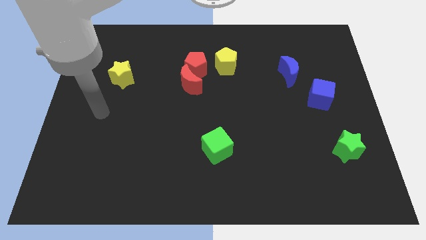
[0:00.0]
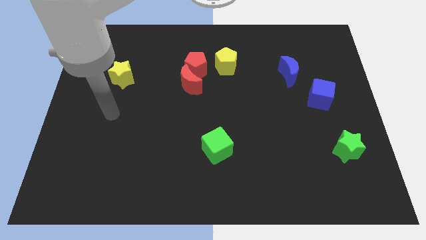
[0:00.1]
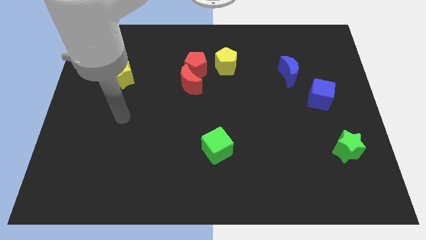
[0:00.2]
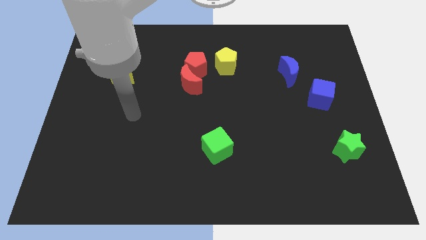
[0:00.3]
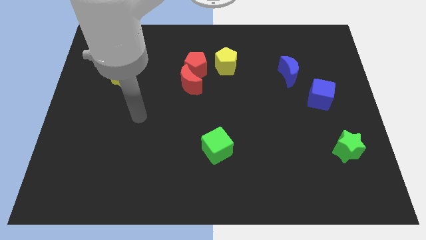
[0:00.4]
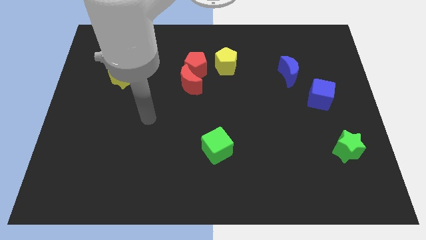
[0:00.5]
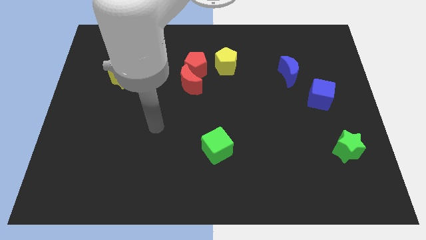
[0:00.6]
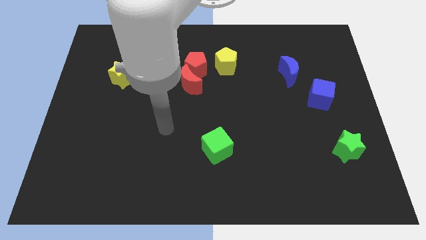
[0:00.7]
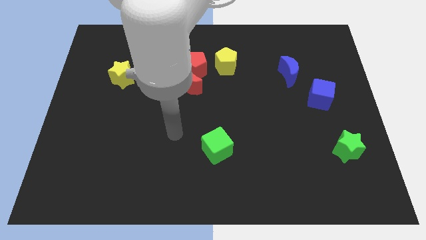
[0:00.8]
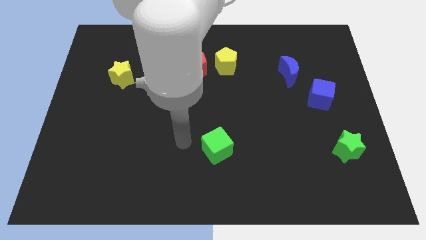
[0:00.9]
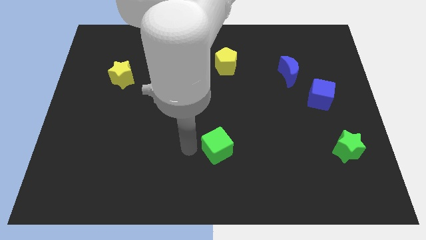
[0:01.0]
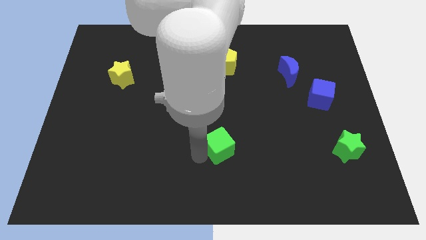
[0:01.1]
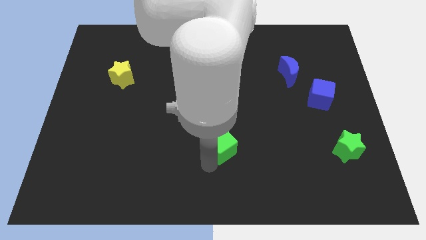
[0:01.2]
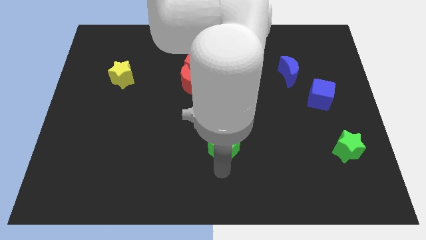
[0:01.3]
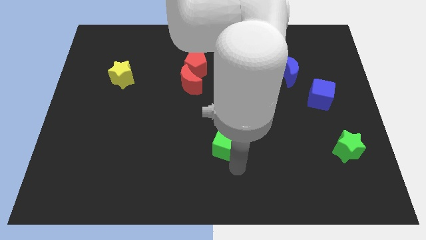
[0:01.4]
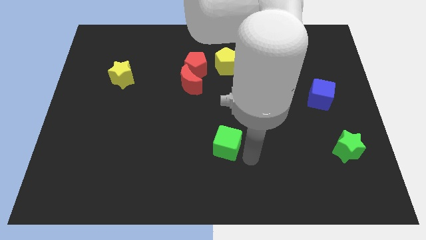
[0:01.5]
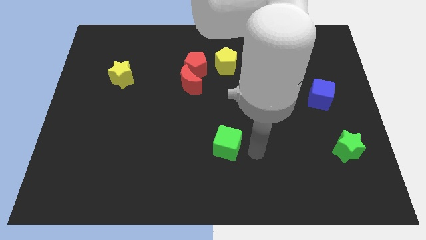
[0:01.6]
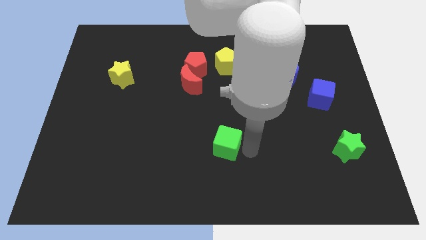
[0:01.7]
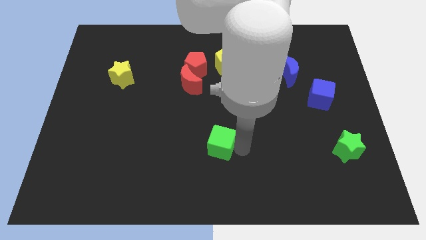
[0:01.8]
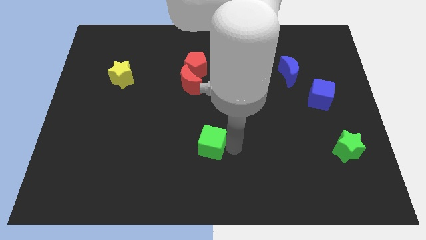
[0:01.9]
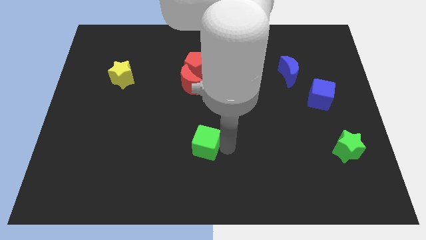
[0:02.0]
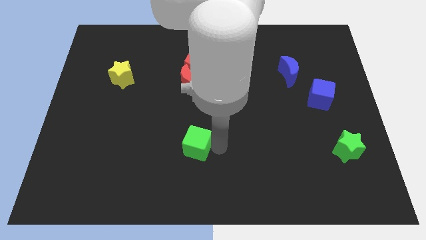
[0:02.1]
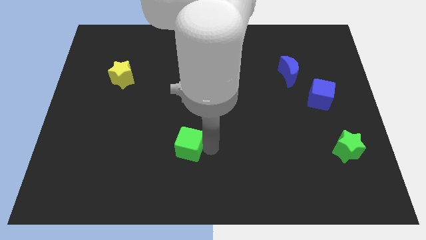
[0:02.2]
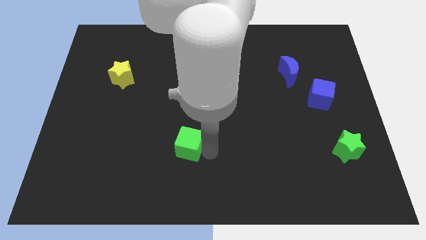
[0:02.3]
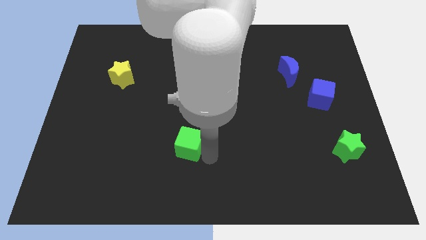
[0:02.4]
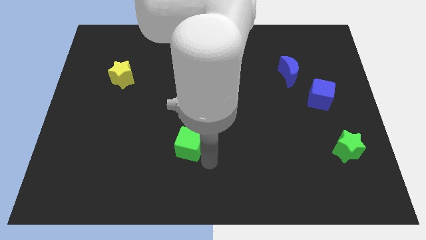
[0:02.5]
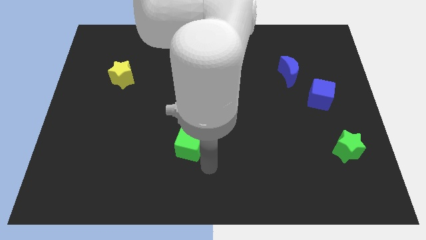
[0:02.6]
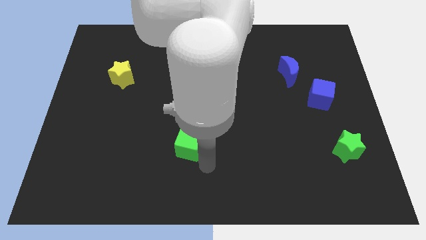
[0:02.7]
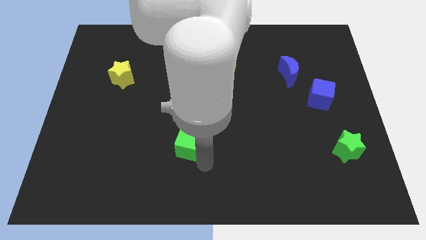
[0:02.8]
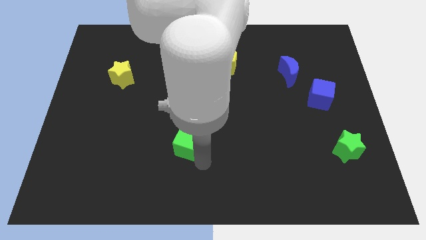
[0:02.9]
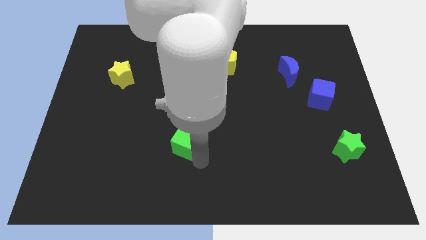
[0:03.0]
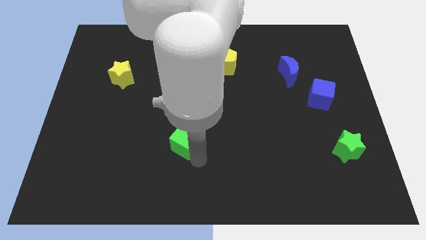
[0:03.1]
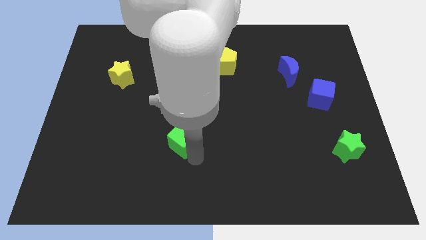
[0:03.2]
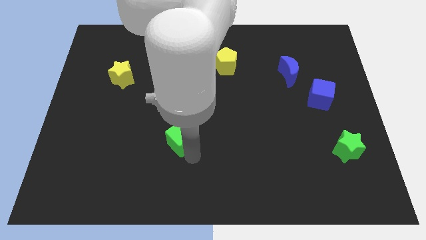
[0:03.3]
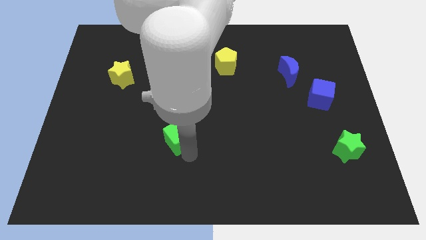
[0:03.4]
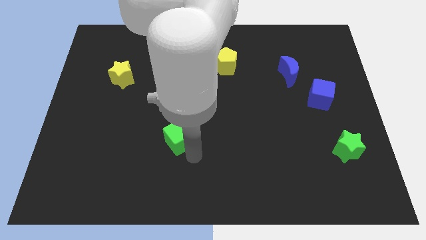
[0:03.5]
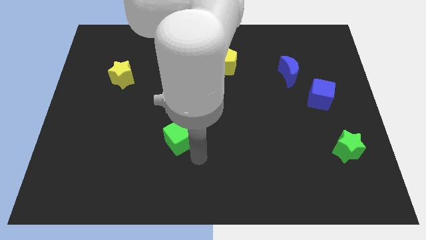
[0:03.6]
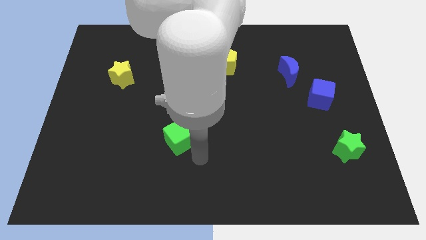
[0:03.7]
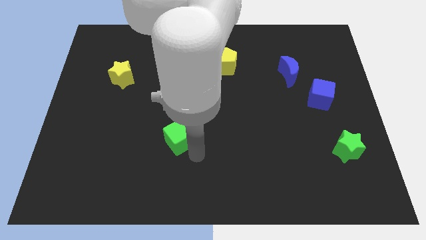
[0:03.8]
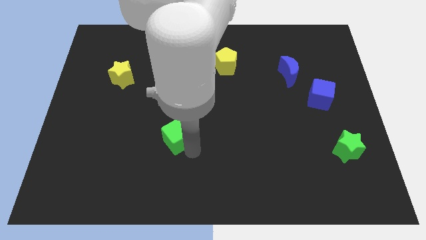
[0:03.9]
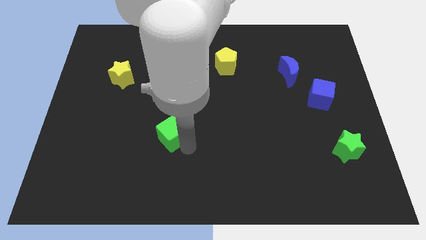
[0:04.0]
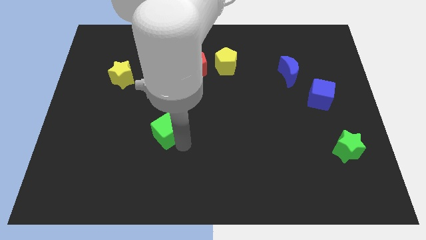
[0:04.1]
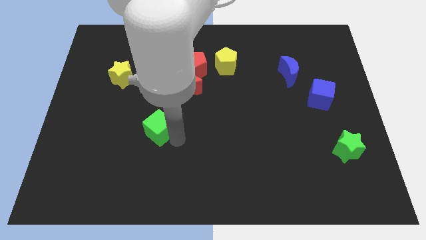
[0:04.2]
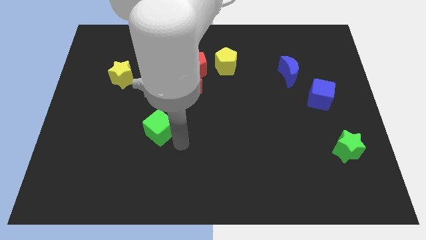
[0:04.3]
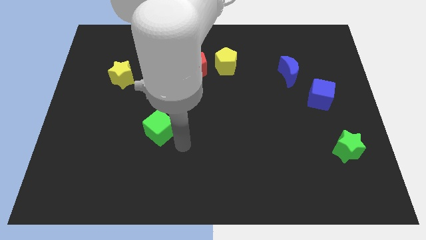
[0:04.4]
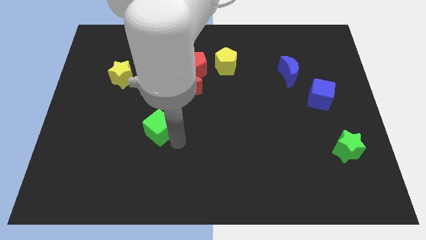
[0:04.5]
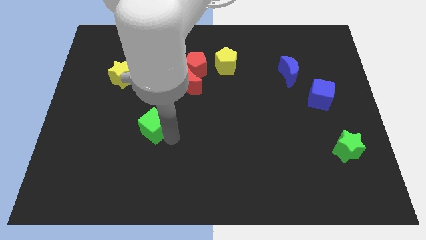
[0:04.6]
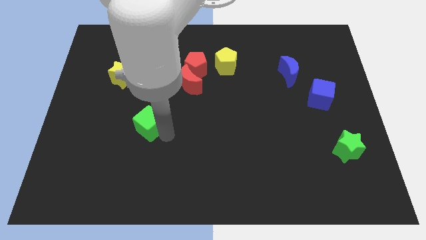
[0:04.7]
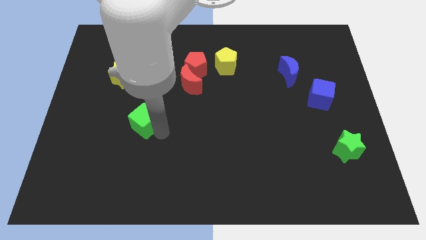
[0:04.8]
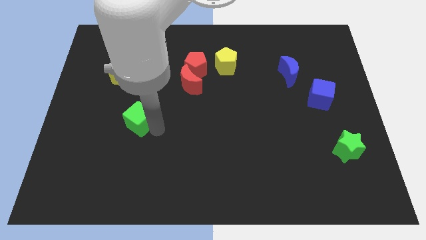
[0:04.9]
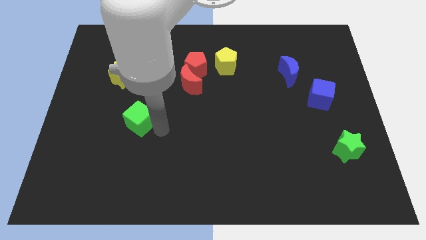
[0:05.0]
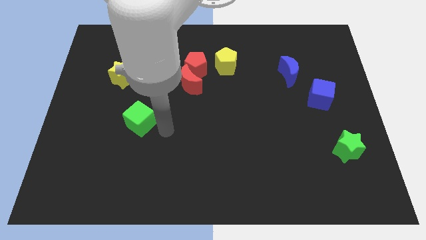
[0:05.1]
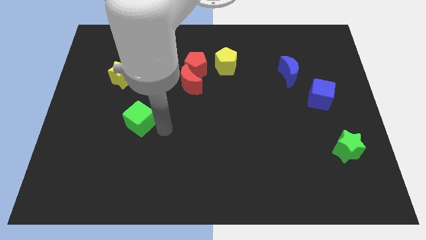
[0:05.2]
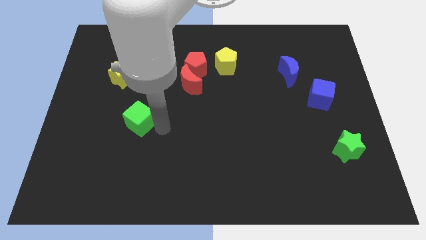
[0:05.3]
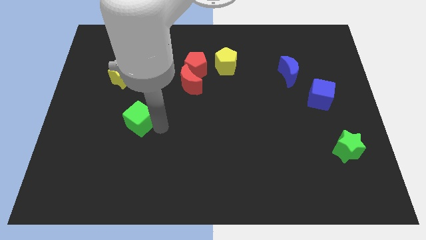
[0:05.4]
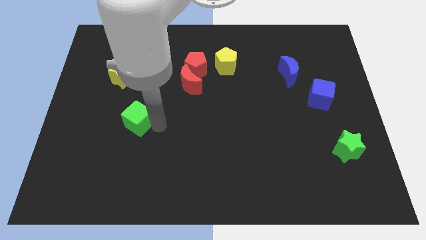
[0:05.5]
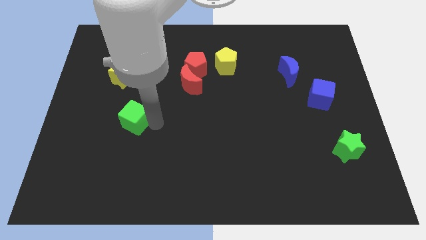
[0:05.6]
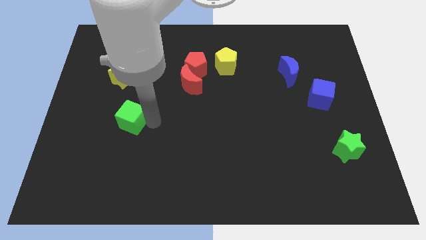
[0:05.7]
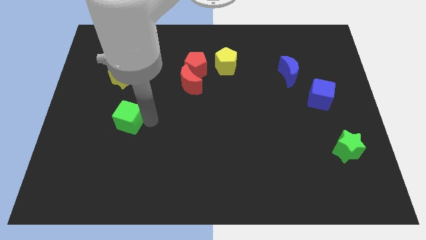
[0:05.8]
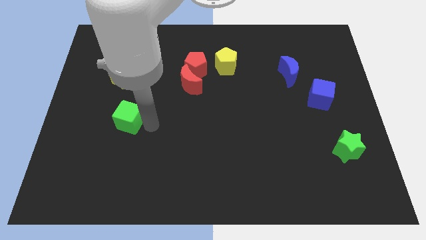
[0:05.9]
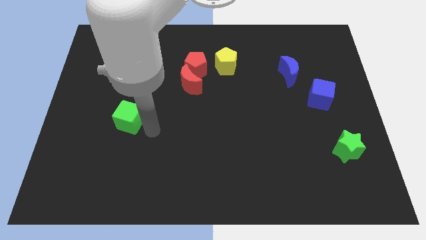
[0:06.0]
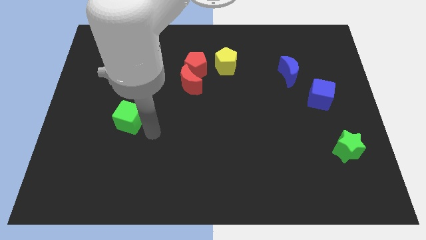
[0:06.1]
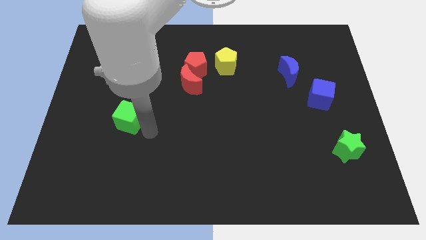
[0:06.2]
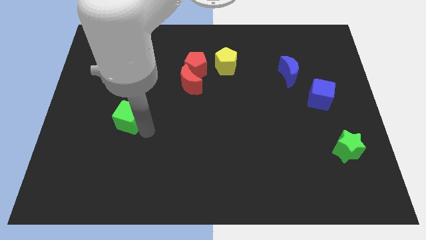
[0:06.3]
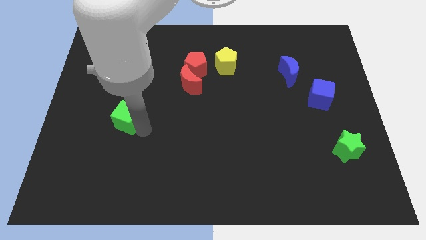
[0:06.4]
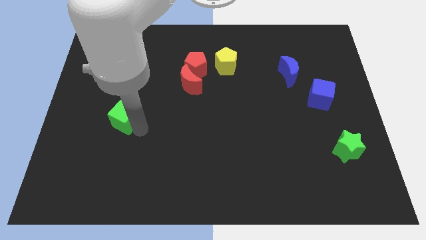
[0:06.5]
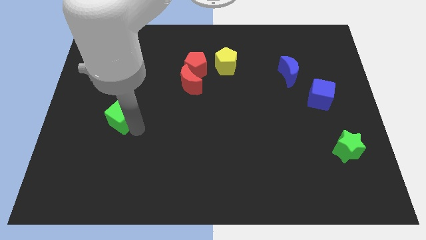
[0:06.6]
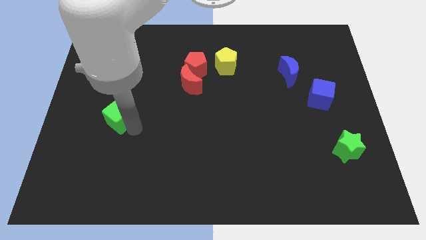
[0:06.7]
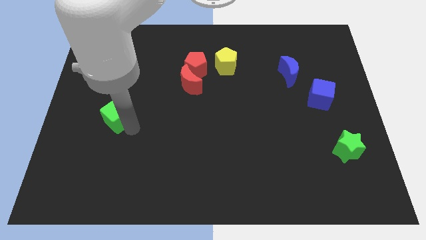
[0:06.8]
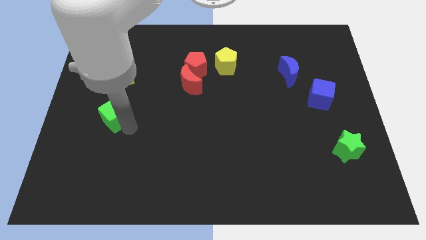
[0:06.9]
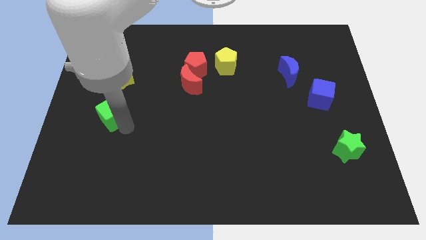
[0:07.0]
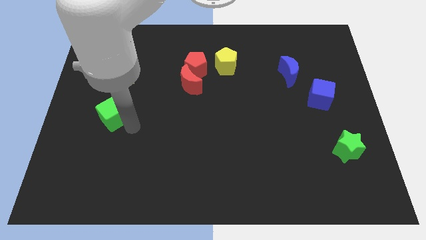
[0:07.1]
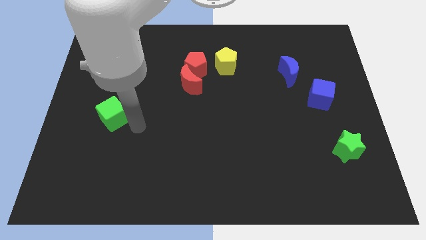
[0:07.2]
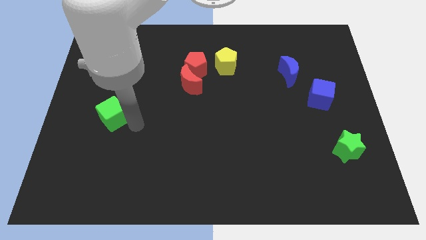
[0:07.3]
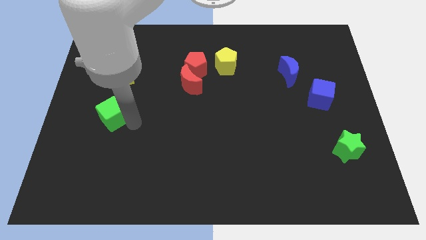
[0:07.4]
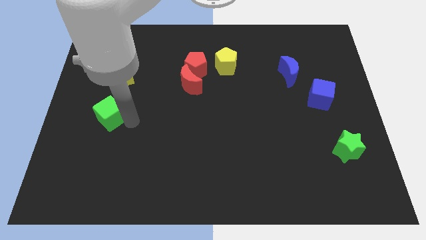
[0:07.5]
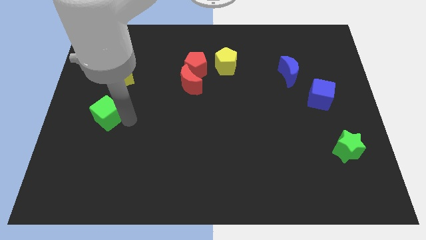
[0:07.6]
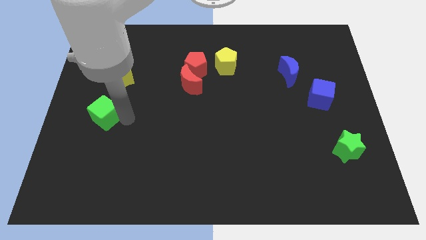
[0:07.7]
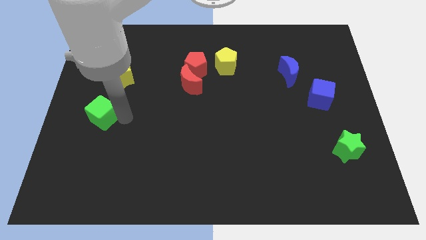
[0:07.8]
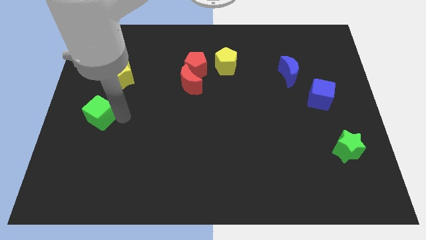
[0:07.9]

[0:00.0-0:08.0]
slide the green cube to the left side
